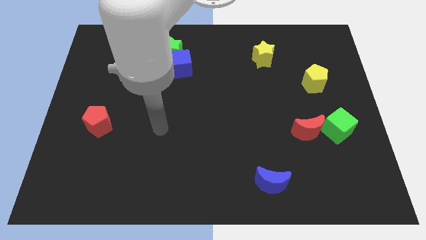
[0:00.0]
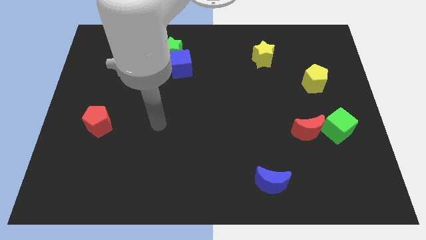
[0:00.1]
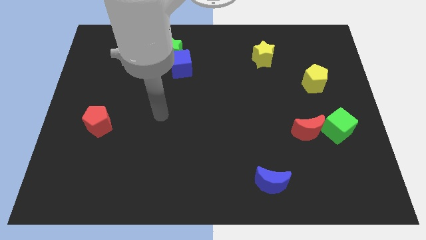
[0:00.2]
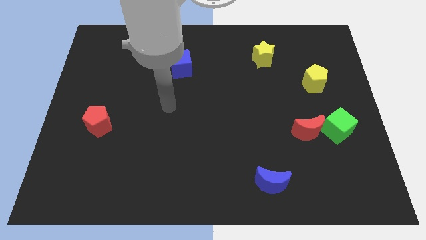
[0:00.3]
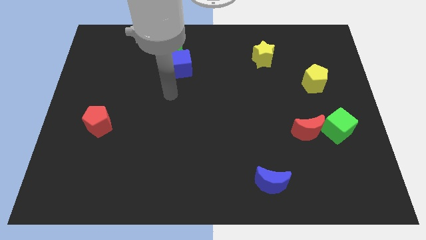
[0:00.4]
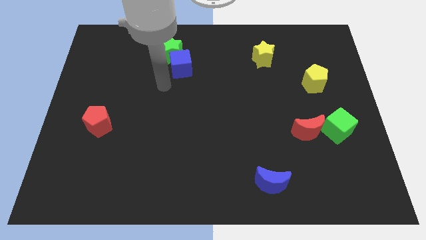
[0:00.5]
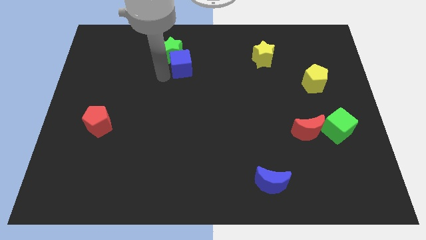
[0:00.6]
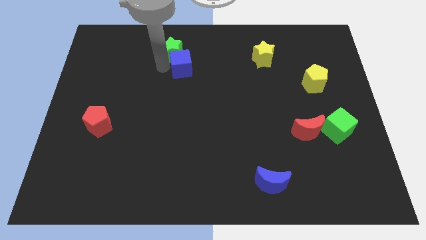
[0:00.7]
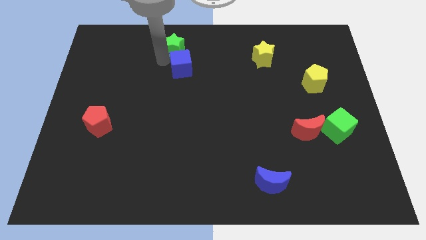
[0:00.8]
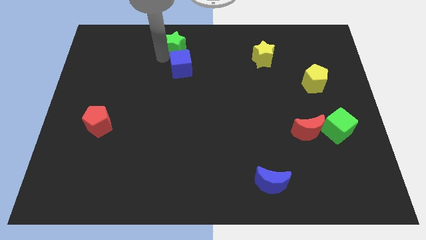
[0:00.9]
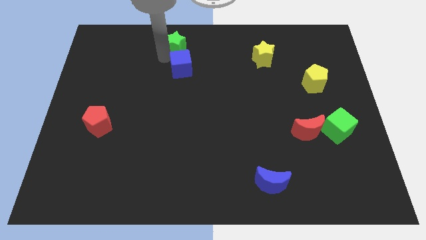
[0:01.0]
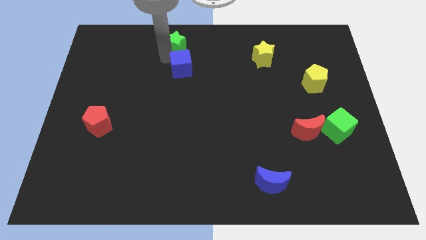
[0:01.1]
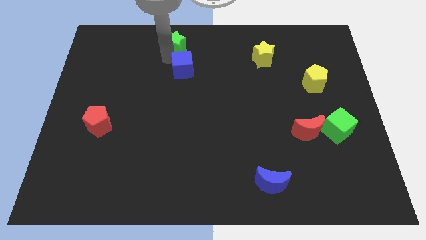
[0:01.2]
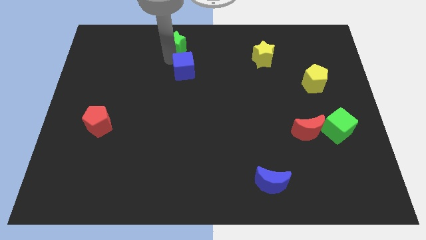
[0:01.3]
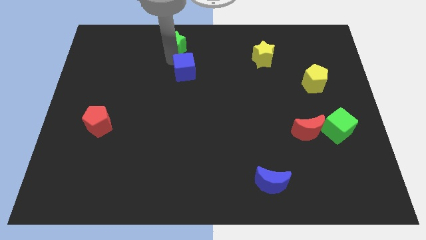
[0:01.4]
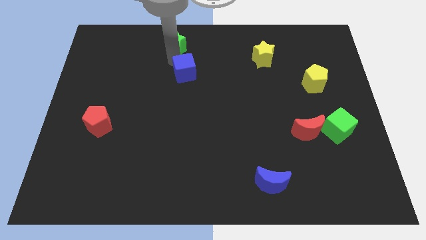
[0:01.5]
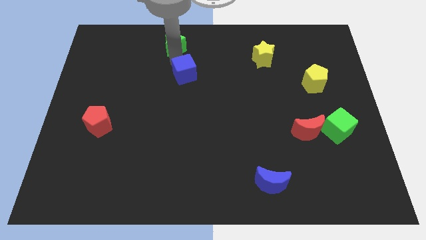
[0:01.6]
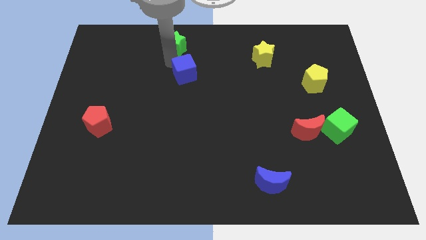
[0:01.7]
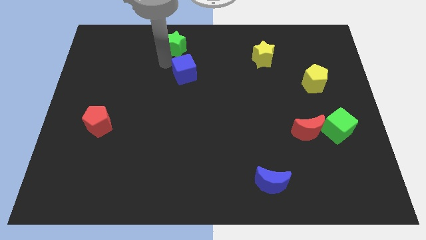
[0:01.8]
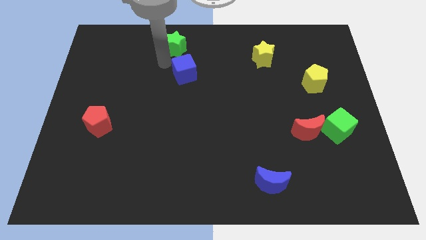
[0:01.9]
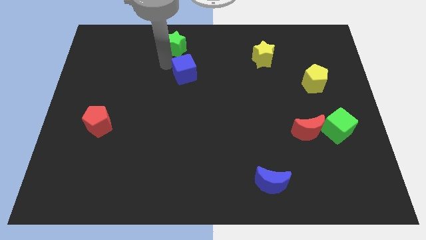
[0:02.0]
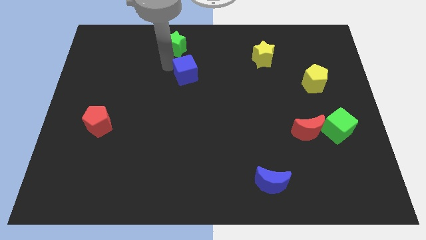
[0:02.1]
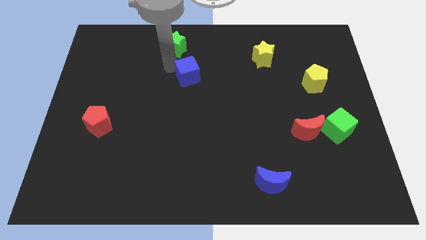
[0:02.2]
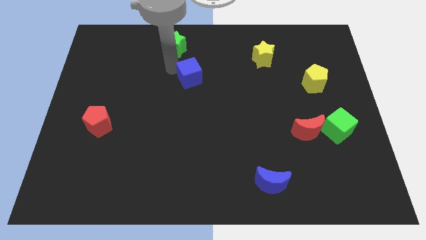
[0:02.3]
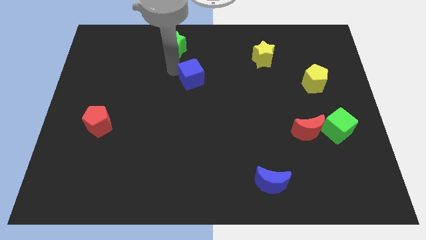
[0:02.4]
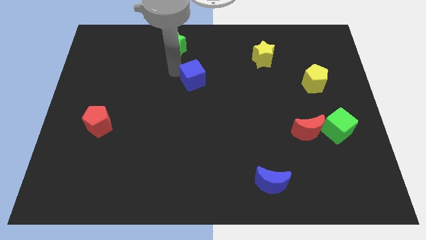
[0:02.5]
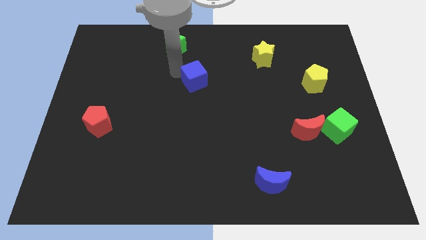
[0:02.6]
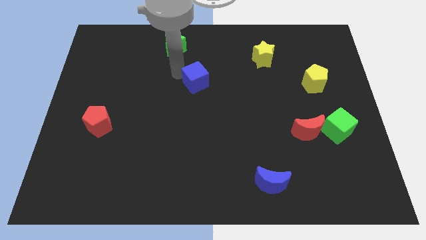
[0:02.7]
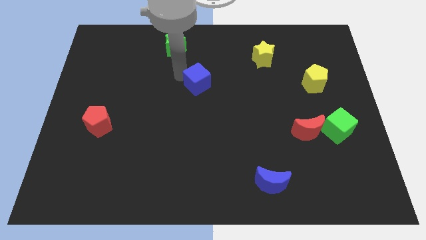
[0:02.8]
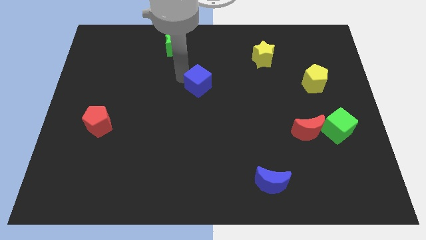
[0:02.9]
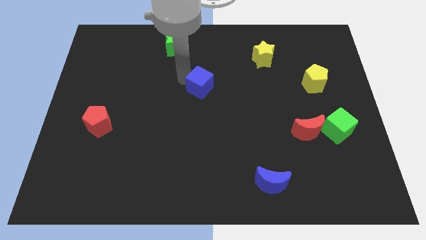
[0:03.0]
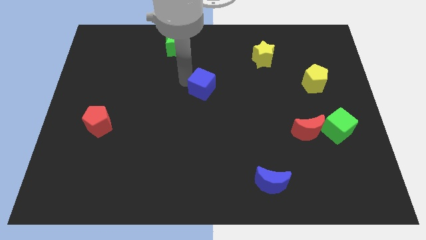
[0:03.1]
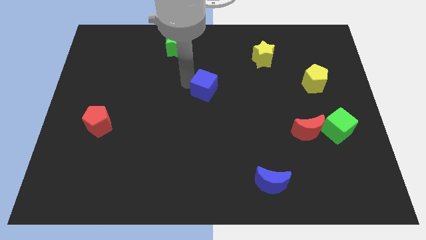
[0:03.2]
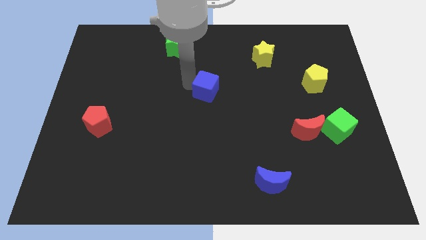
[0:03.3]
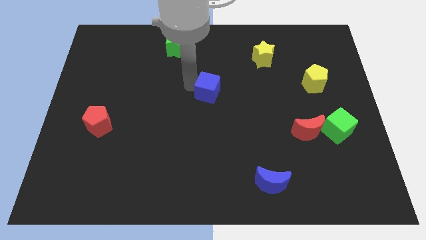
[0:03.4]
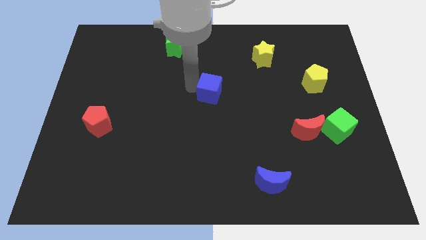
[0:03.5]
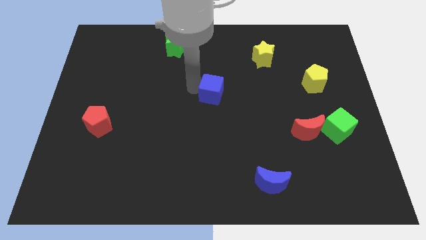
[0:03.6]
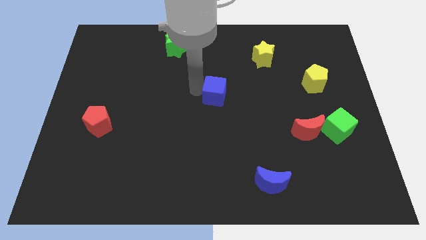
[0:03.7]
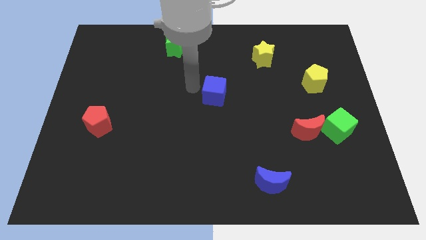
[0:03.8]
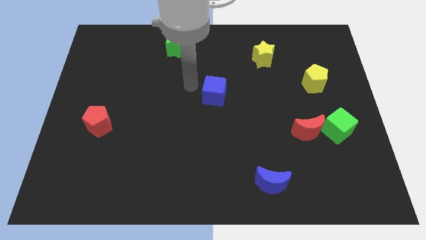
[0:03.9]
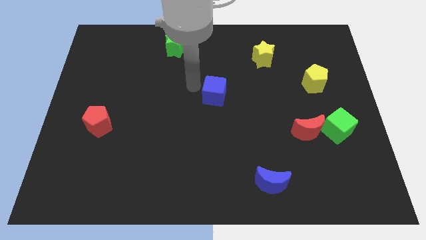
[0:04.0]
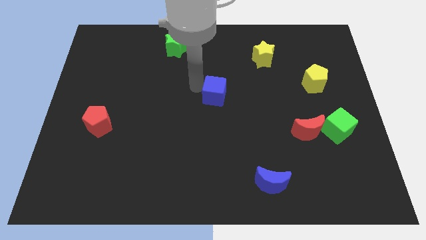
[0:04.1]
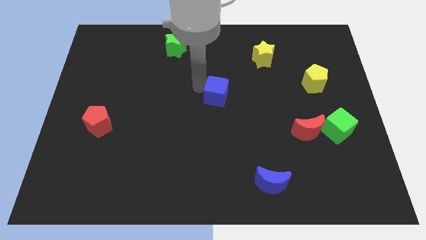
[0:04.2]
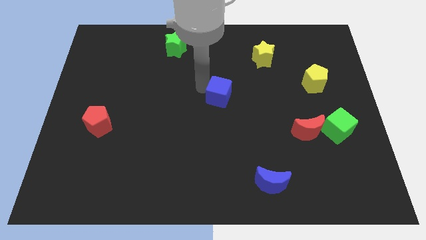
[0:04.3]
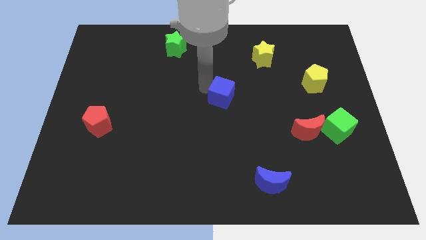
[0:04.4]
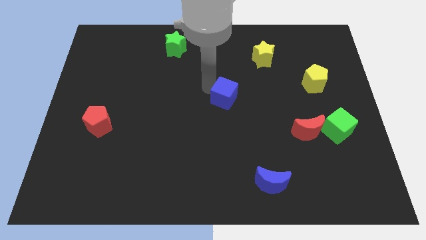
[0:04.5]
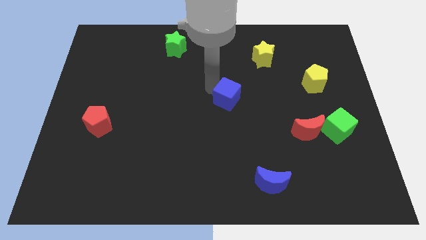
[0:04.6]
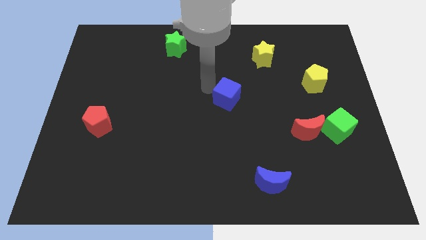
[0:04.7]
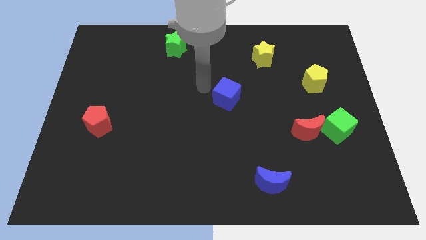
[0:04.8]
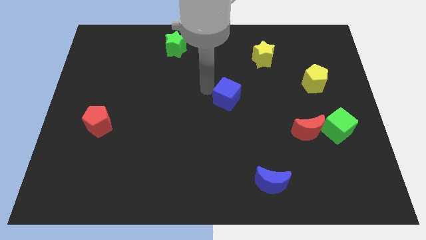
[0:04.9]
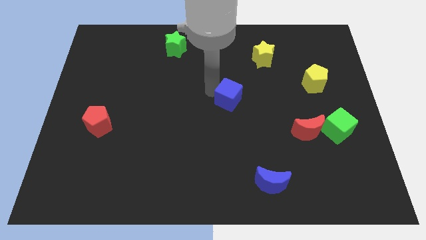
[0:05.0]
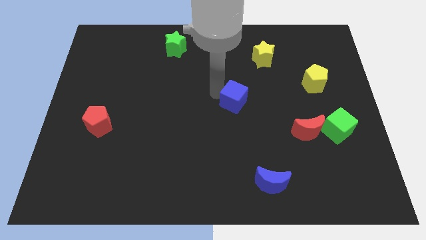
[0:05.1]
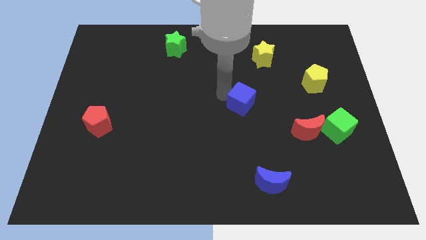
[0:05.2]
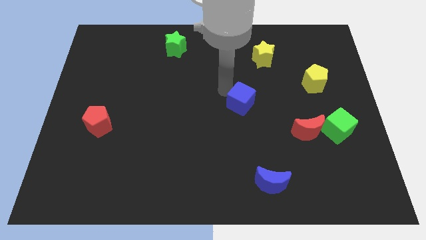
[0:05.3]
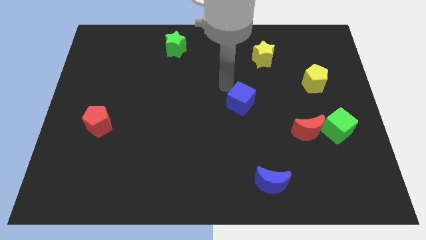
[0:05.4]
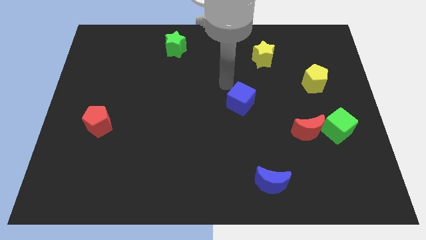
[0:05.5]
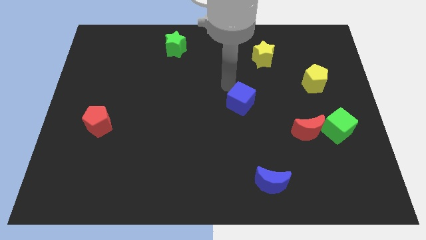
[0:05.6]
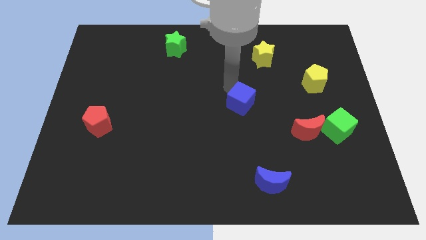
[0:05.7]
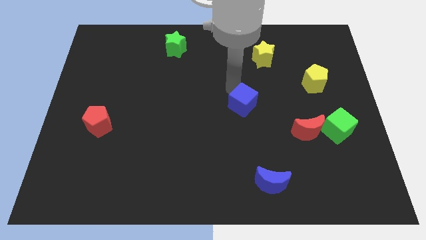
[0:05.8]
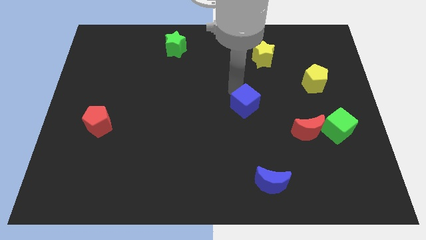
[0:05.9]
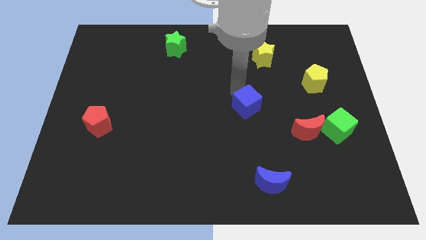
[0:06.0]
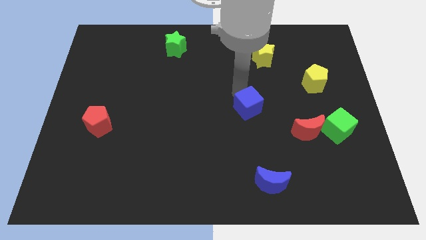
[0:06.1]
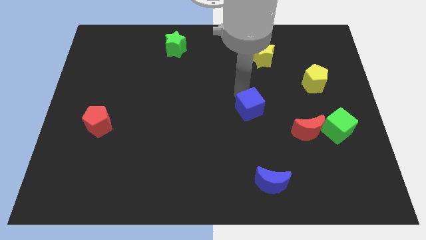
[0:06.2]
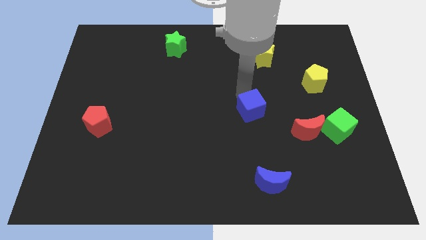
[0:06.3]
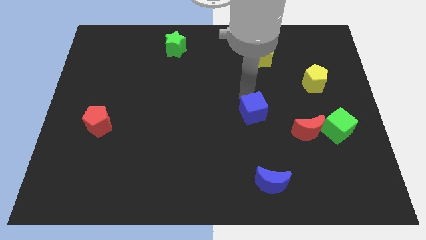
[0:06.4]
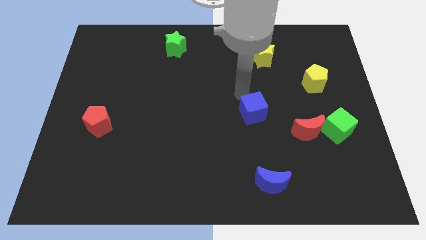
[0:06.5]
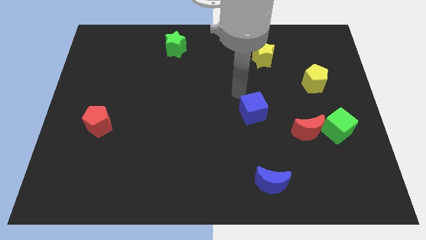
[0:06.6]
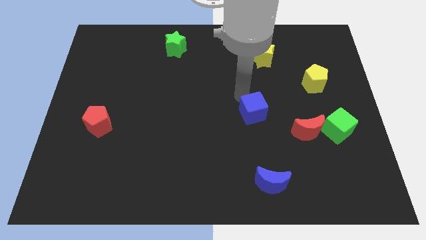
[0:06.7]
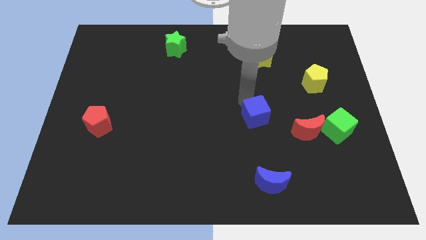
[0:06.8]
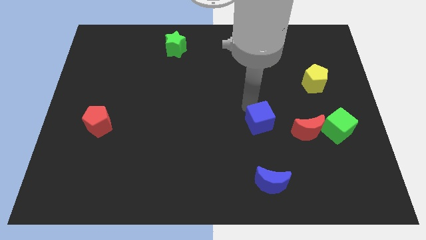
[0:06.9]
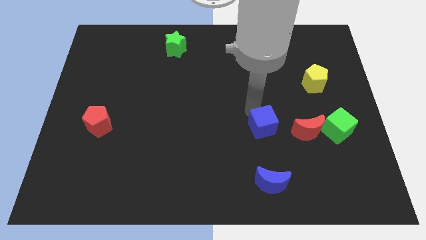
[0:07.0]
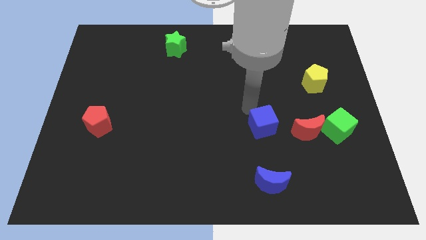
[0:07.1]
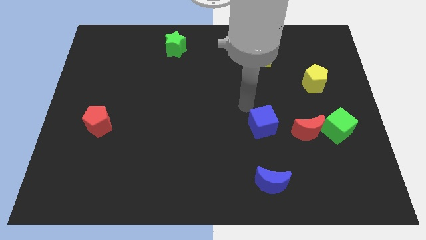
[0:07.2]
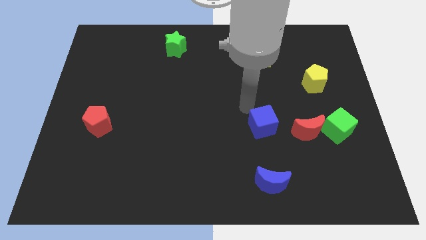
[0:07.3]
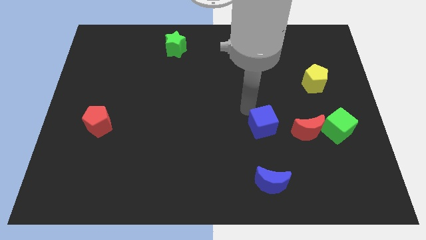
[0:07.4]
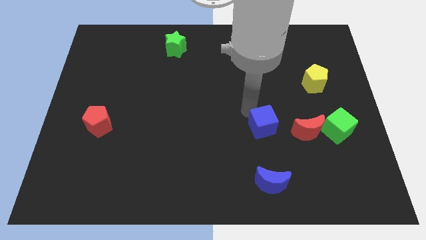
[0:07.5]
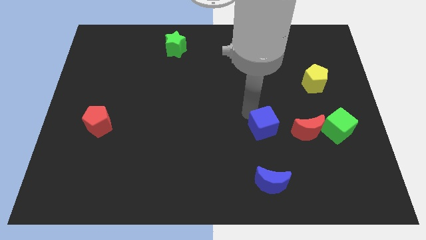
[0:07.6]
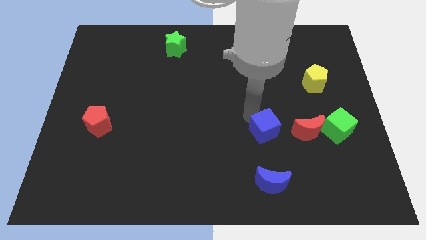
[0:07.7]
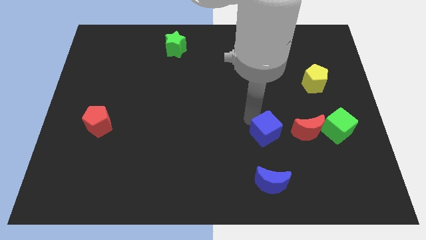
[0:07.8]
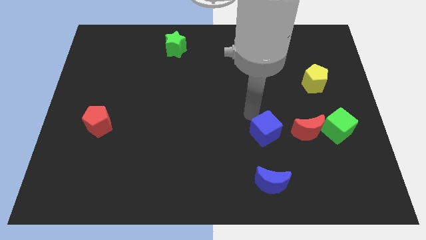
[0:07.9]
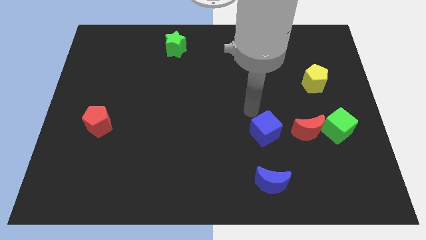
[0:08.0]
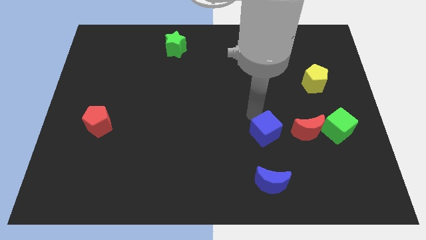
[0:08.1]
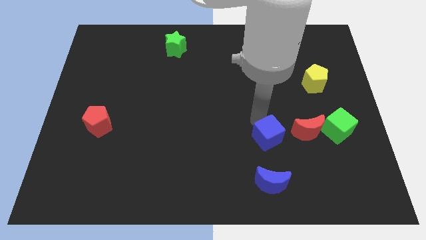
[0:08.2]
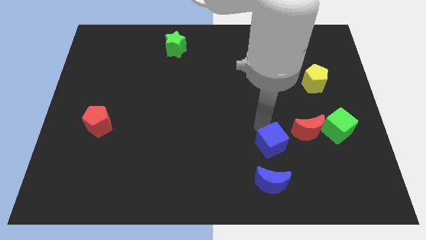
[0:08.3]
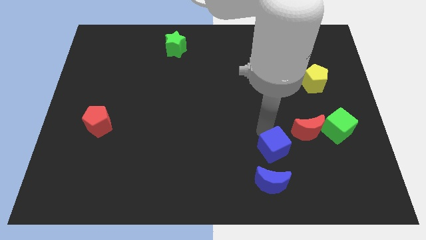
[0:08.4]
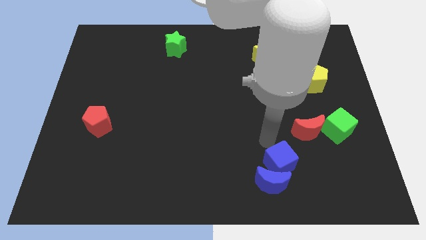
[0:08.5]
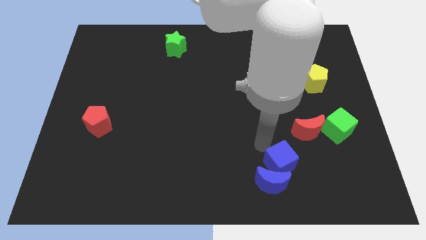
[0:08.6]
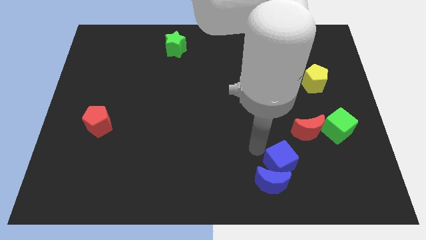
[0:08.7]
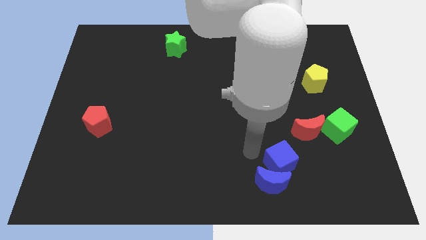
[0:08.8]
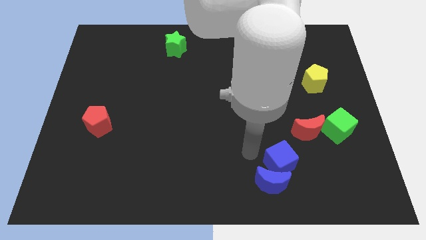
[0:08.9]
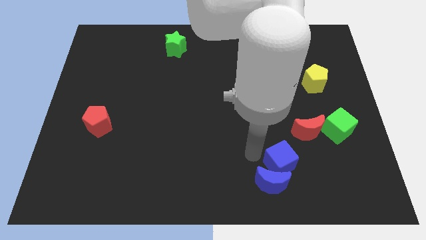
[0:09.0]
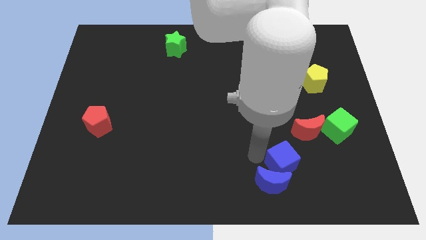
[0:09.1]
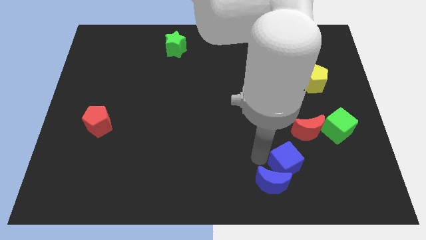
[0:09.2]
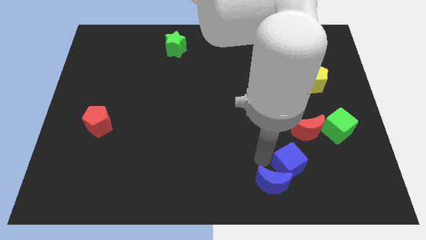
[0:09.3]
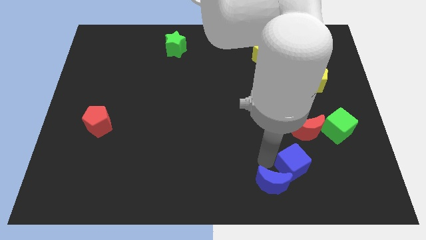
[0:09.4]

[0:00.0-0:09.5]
move the blue cube below the red moon
